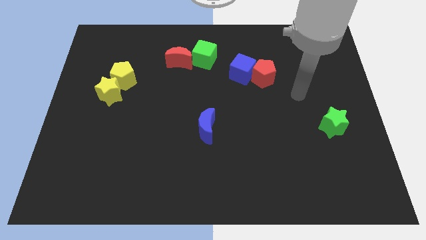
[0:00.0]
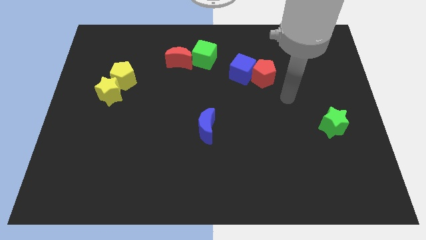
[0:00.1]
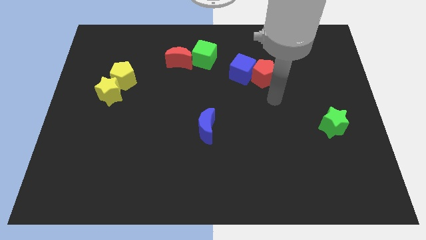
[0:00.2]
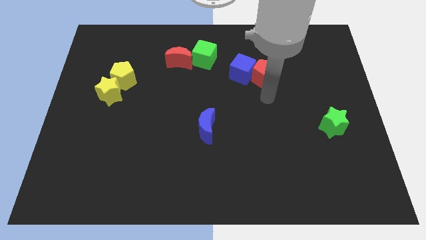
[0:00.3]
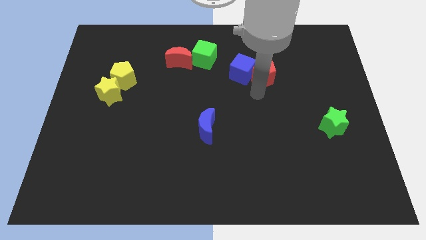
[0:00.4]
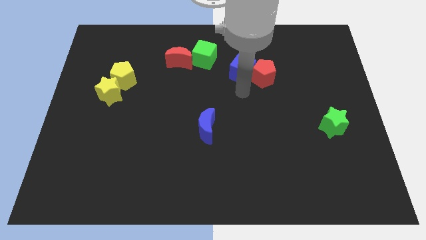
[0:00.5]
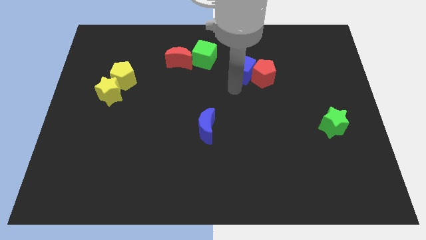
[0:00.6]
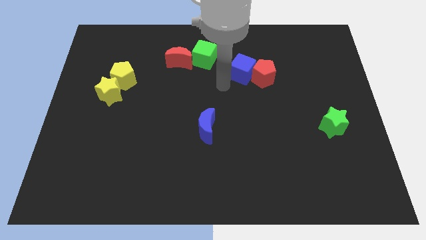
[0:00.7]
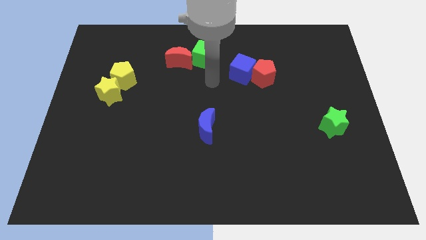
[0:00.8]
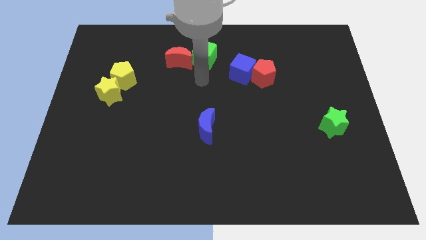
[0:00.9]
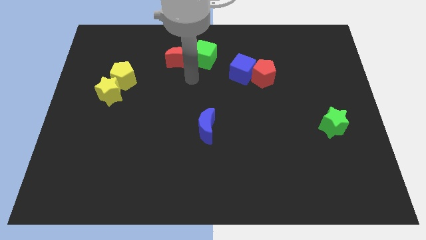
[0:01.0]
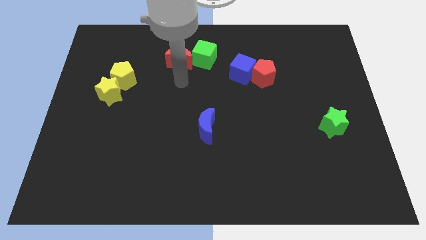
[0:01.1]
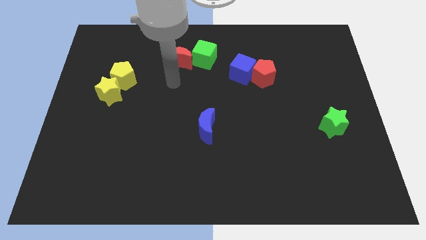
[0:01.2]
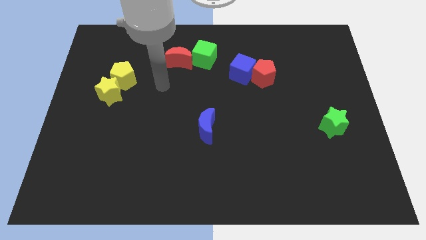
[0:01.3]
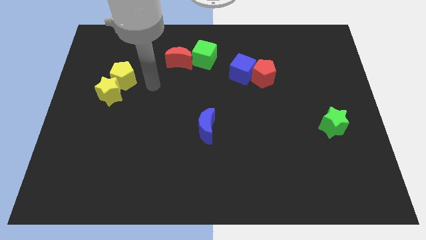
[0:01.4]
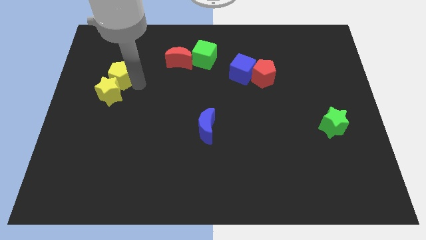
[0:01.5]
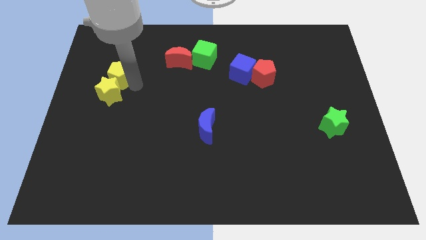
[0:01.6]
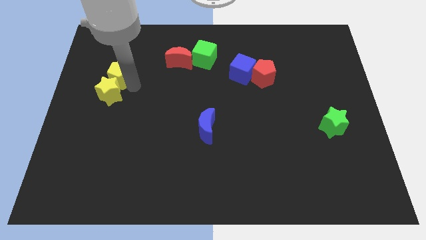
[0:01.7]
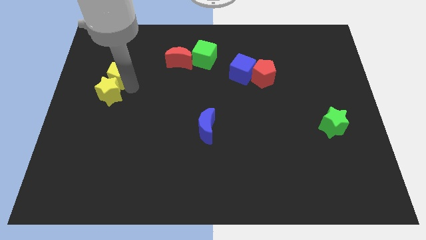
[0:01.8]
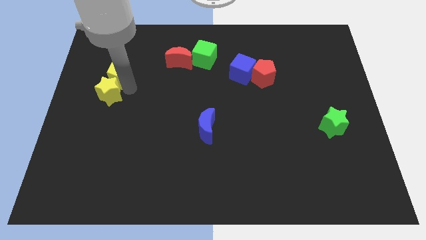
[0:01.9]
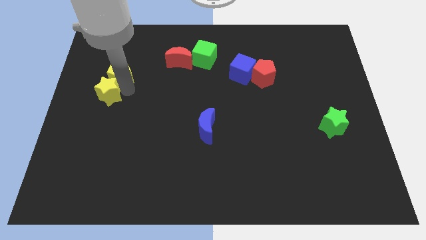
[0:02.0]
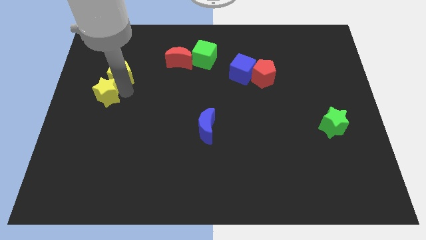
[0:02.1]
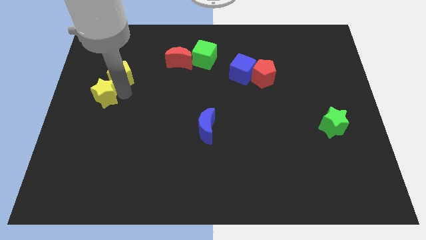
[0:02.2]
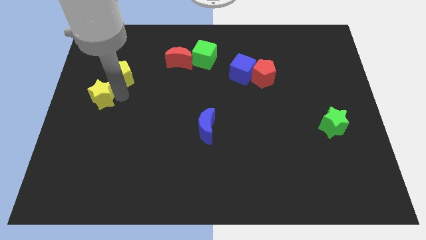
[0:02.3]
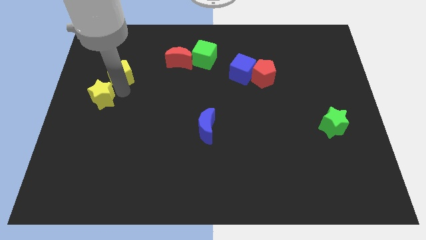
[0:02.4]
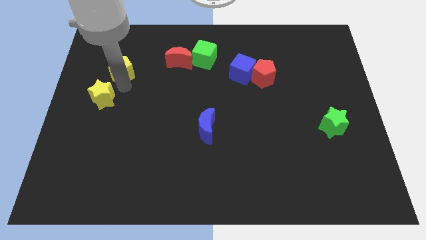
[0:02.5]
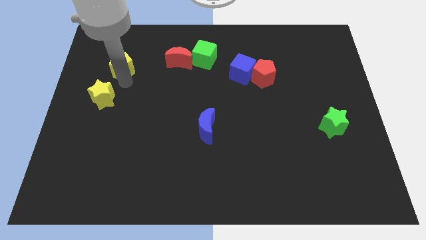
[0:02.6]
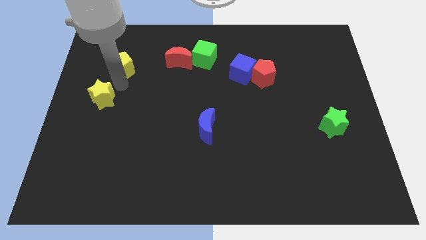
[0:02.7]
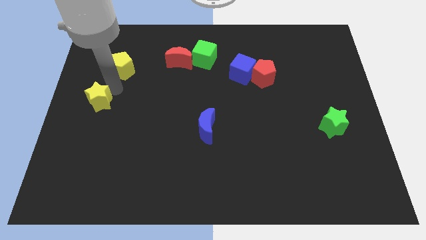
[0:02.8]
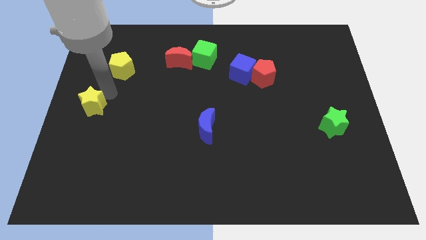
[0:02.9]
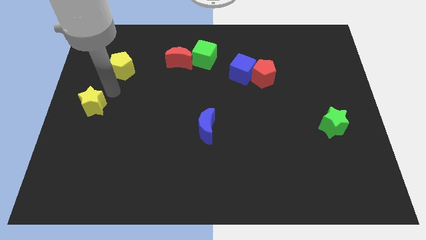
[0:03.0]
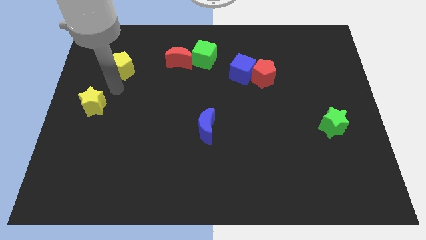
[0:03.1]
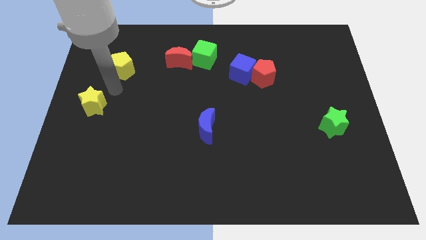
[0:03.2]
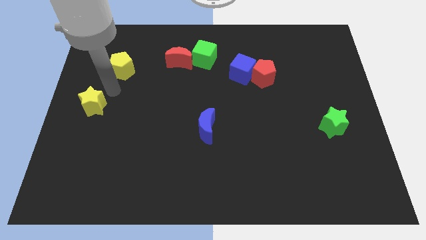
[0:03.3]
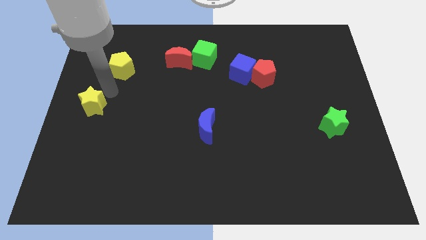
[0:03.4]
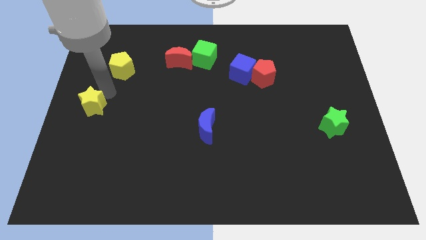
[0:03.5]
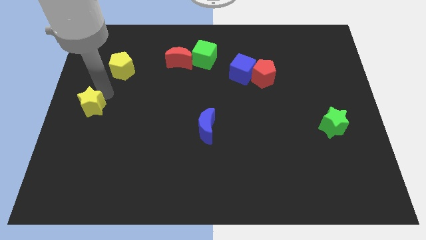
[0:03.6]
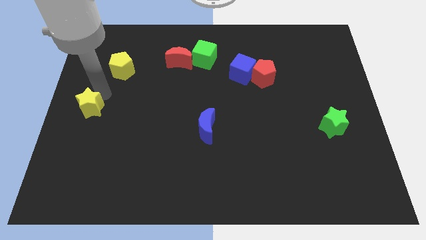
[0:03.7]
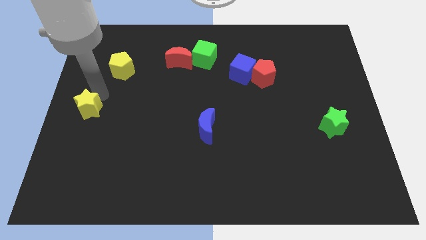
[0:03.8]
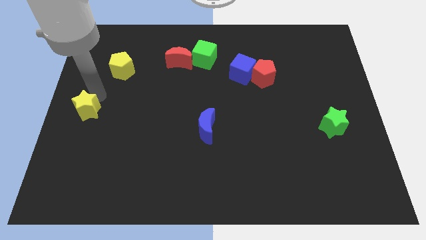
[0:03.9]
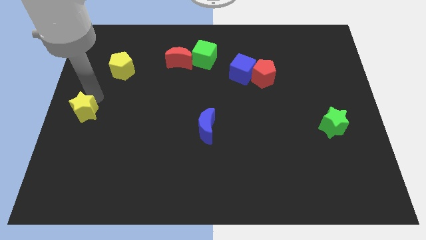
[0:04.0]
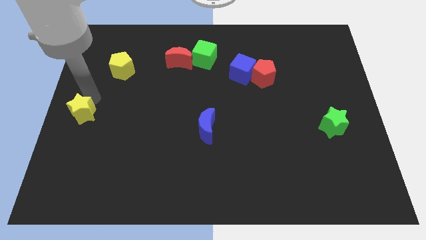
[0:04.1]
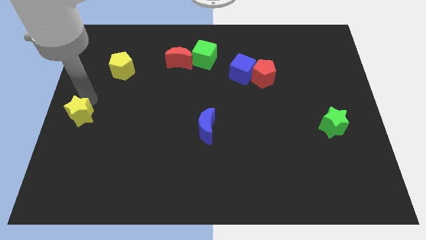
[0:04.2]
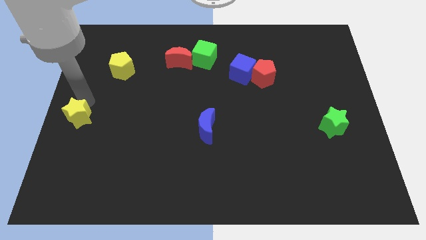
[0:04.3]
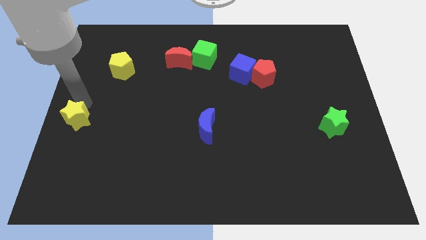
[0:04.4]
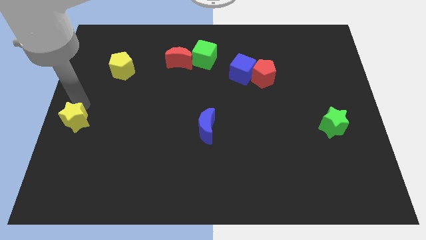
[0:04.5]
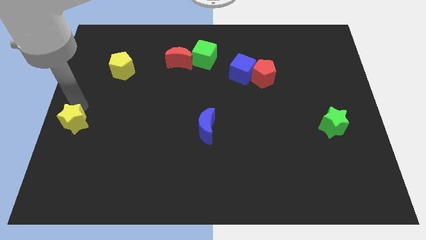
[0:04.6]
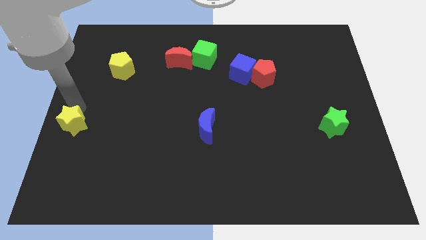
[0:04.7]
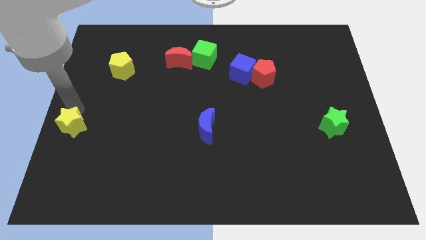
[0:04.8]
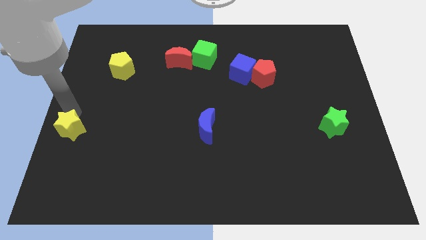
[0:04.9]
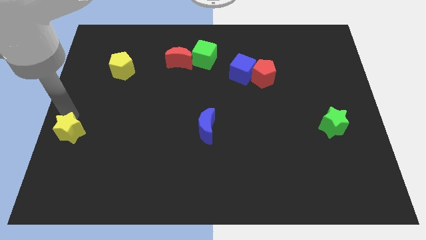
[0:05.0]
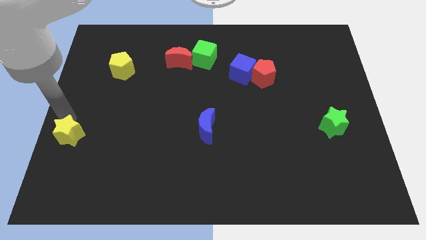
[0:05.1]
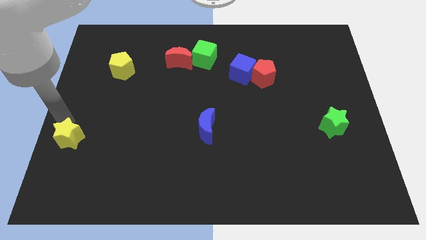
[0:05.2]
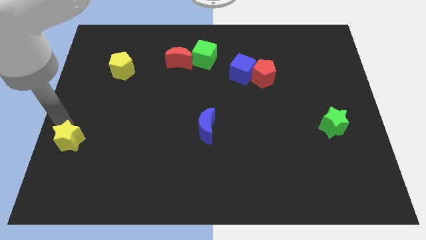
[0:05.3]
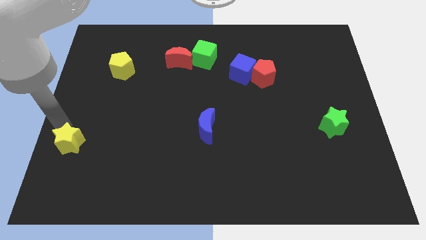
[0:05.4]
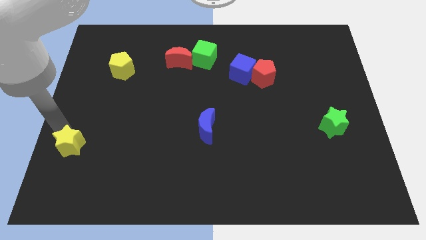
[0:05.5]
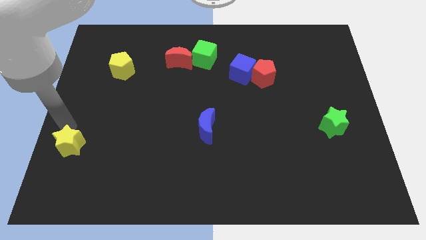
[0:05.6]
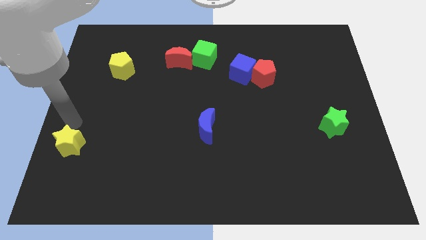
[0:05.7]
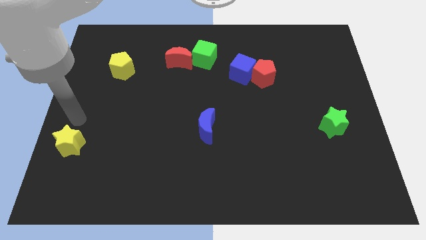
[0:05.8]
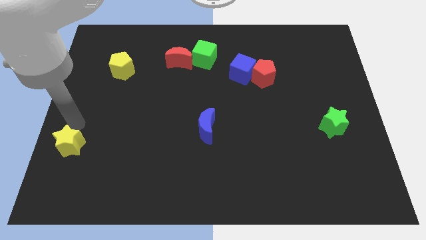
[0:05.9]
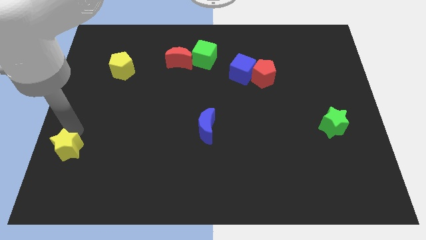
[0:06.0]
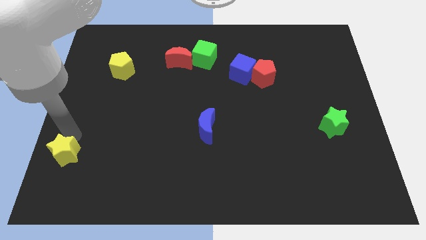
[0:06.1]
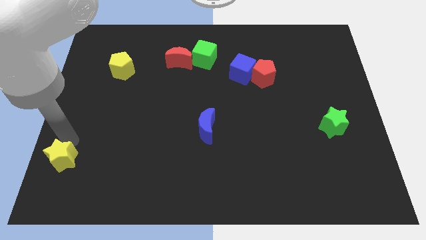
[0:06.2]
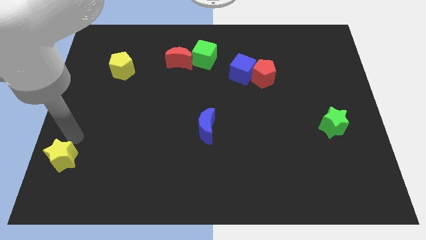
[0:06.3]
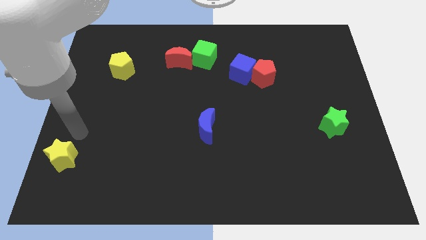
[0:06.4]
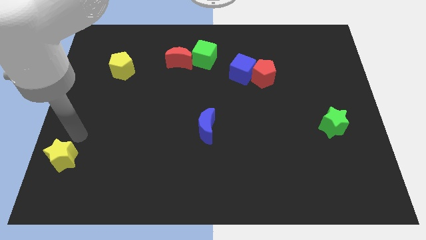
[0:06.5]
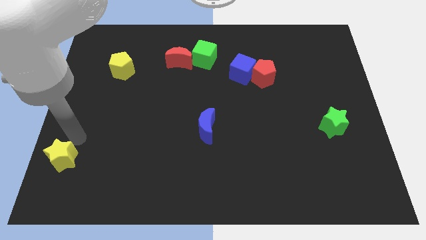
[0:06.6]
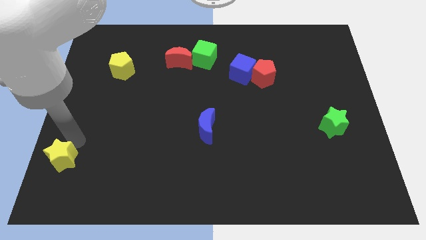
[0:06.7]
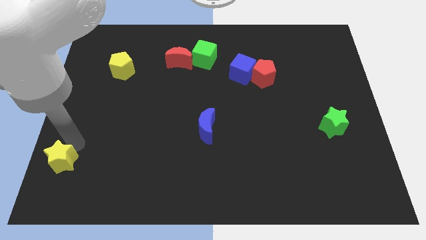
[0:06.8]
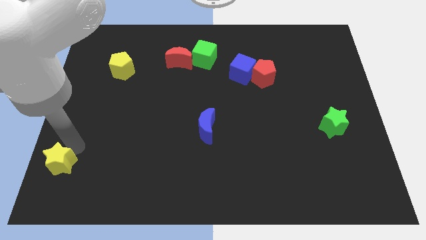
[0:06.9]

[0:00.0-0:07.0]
put the yellow star to the lower left corner

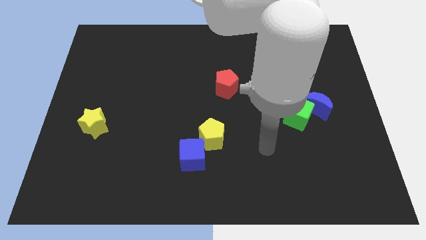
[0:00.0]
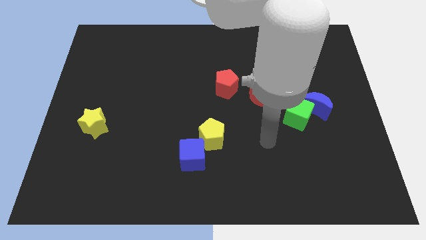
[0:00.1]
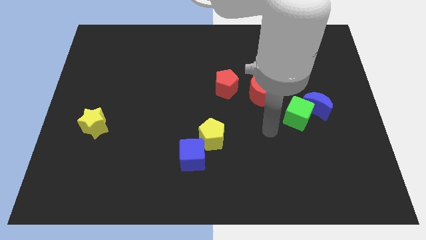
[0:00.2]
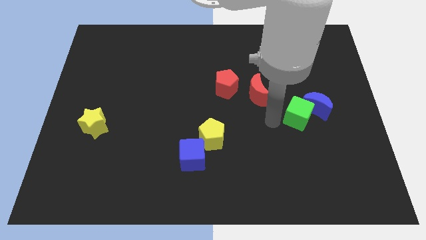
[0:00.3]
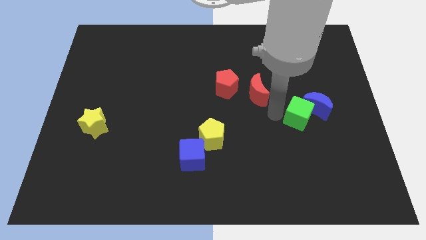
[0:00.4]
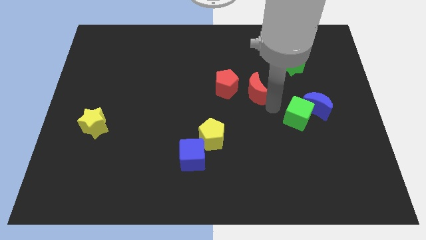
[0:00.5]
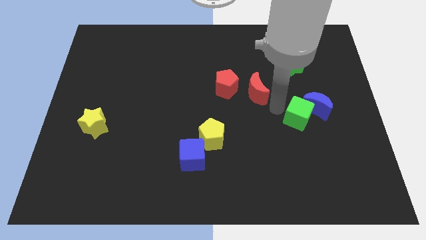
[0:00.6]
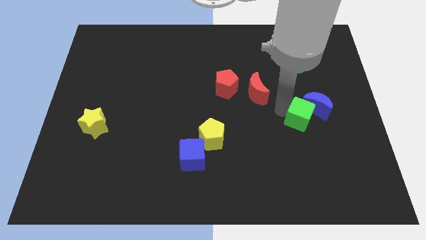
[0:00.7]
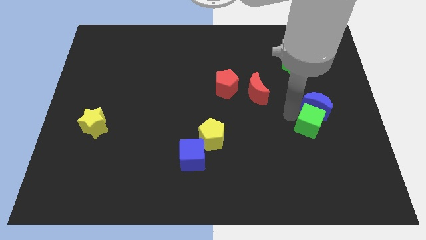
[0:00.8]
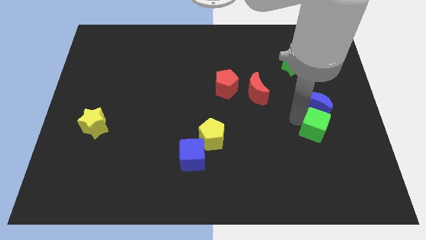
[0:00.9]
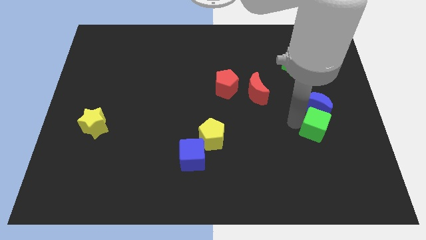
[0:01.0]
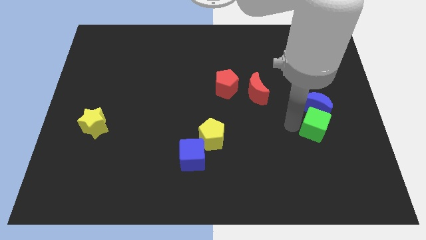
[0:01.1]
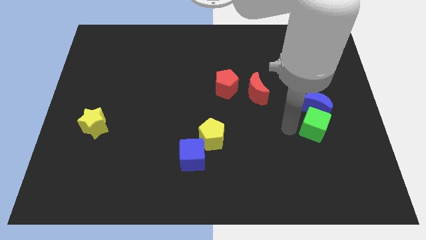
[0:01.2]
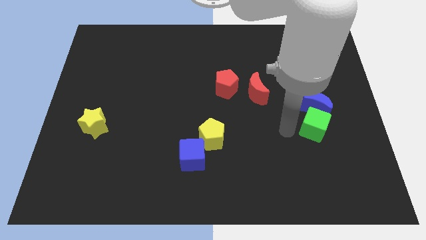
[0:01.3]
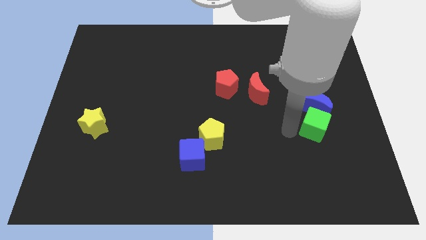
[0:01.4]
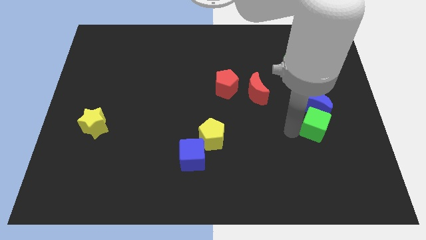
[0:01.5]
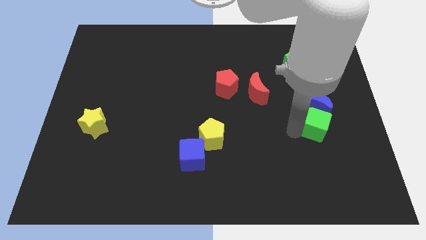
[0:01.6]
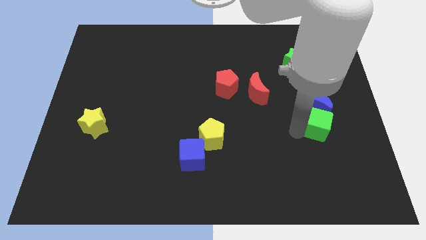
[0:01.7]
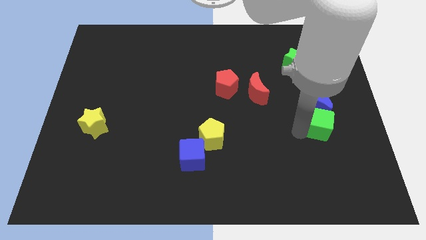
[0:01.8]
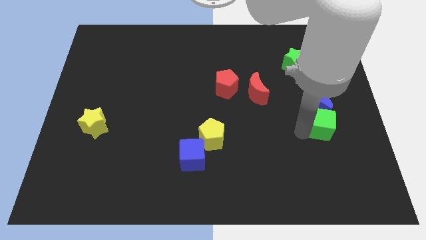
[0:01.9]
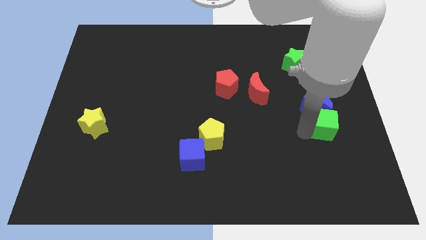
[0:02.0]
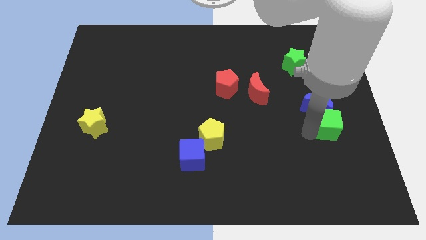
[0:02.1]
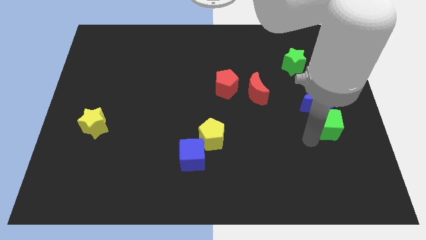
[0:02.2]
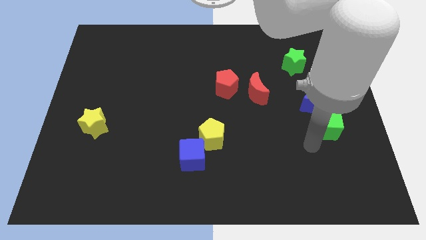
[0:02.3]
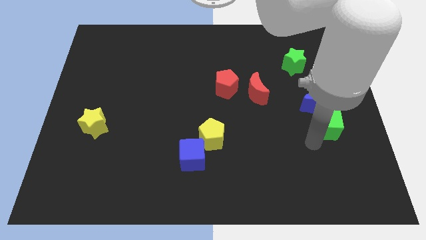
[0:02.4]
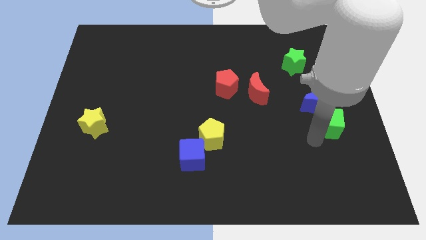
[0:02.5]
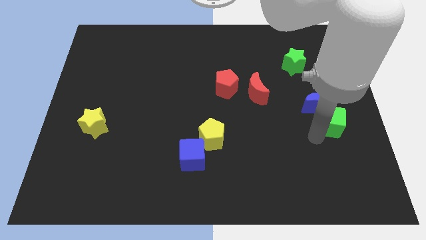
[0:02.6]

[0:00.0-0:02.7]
move the green cube to the center right
